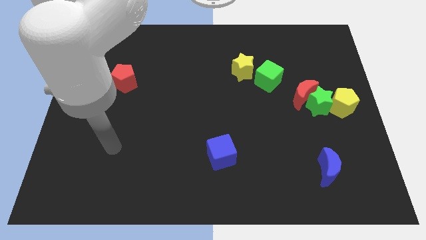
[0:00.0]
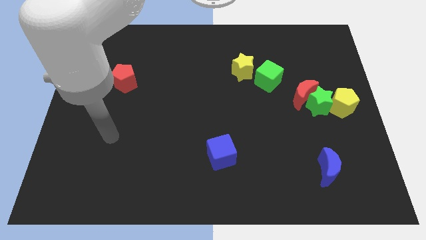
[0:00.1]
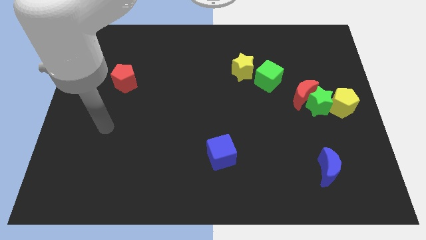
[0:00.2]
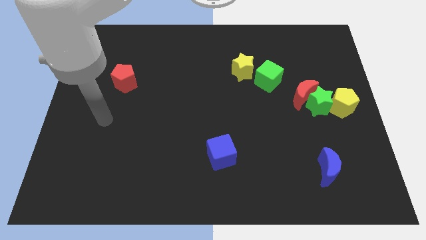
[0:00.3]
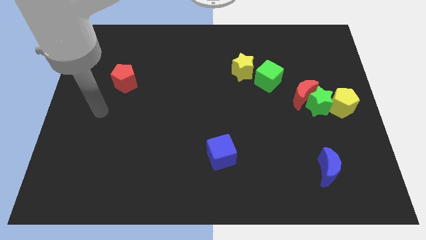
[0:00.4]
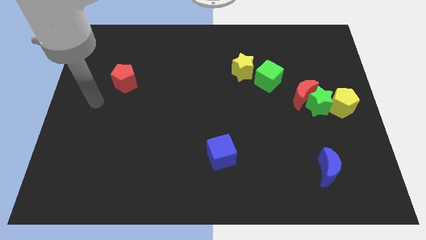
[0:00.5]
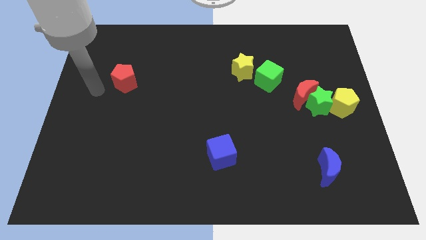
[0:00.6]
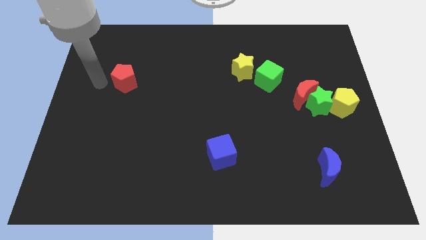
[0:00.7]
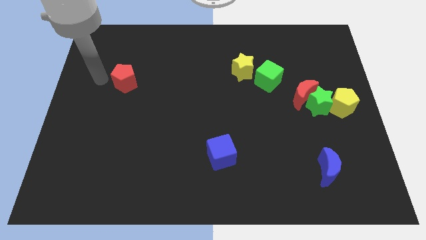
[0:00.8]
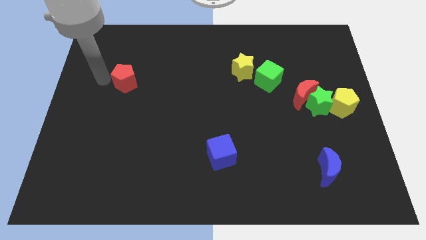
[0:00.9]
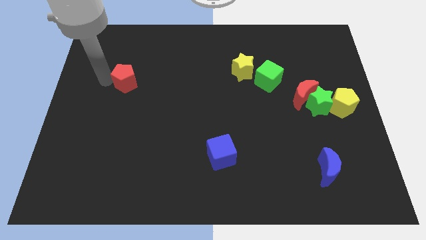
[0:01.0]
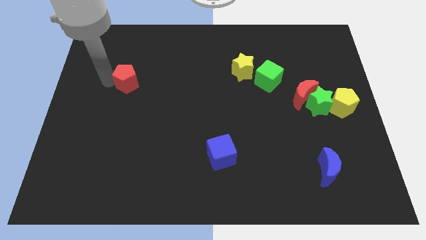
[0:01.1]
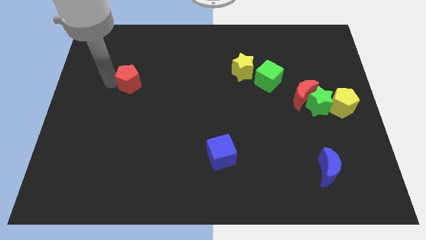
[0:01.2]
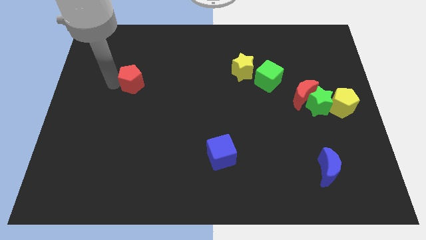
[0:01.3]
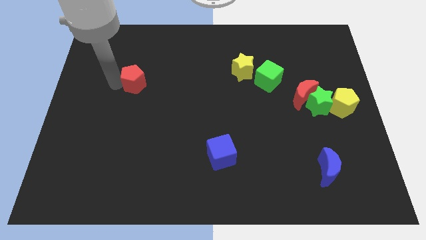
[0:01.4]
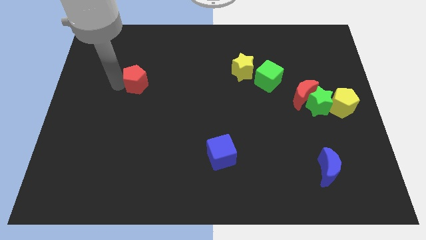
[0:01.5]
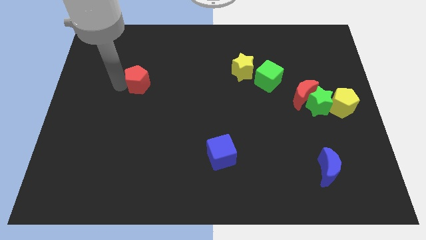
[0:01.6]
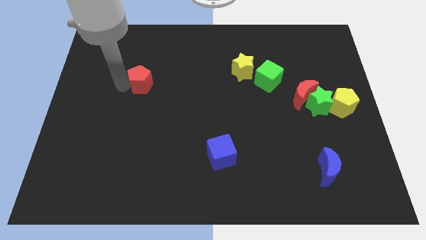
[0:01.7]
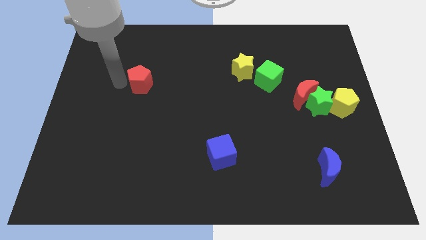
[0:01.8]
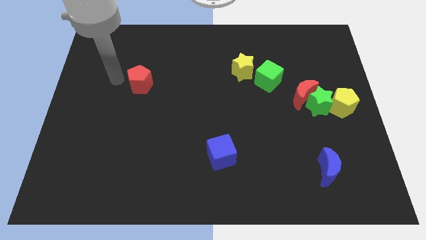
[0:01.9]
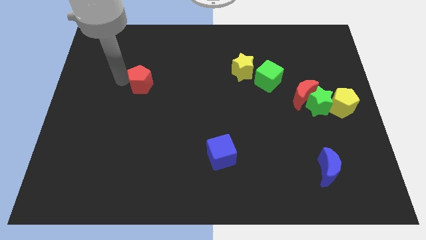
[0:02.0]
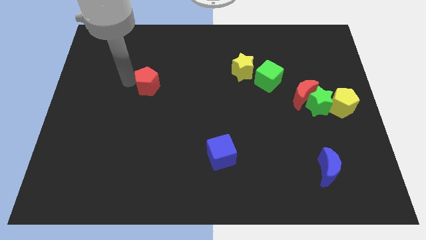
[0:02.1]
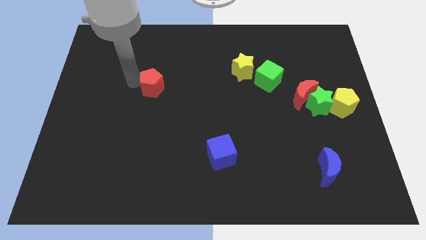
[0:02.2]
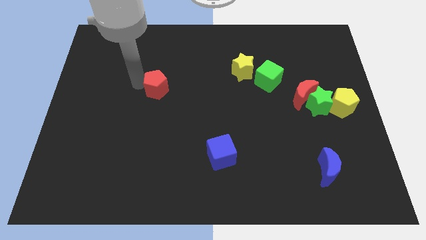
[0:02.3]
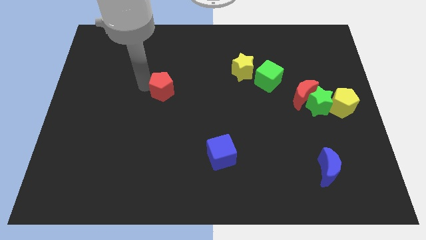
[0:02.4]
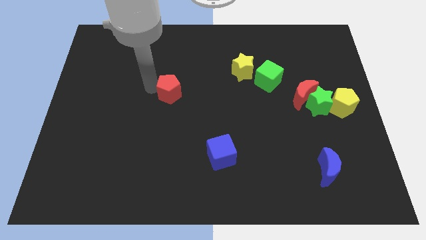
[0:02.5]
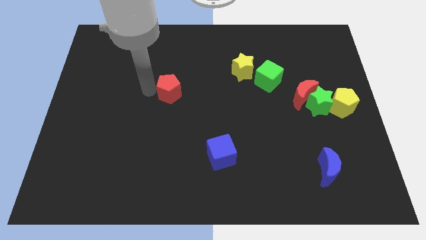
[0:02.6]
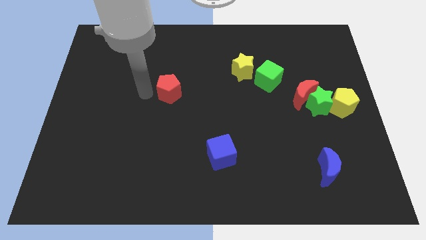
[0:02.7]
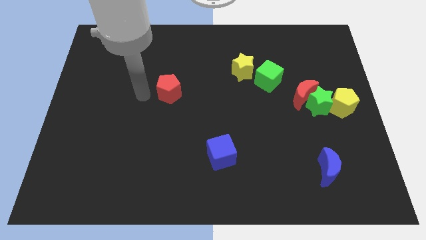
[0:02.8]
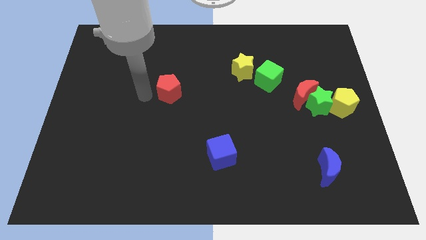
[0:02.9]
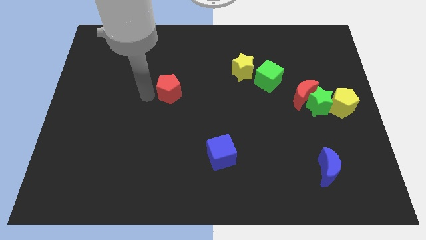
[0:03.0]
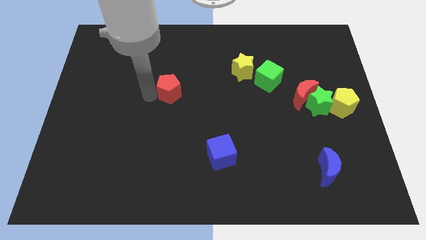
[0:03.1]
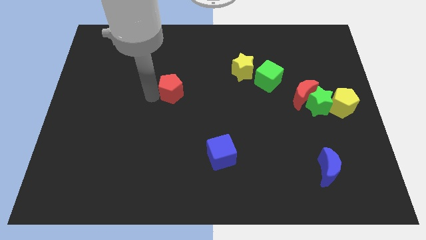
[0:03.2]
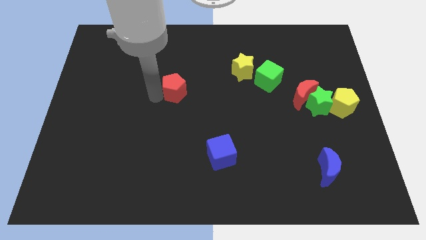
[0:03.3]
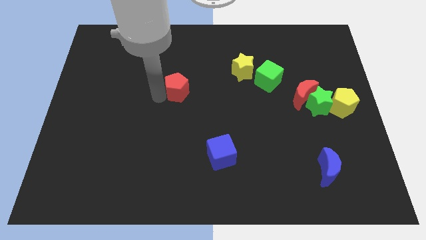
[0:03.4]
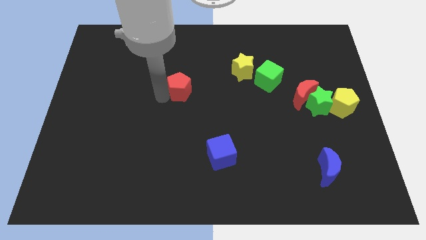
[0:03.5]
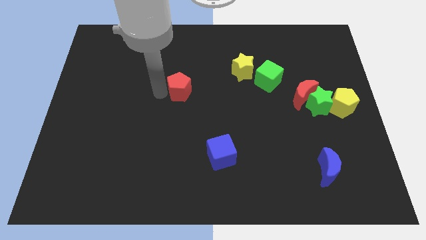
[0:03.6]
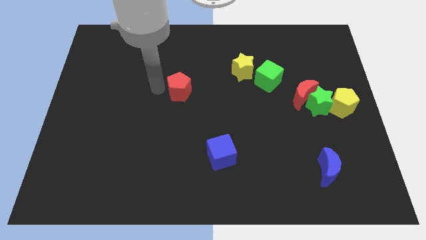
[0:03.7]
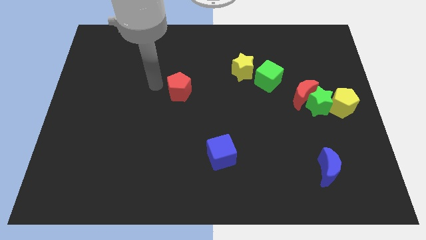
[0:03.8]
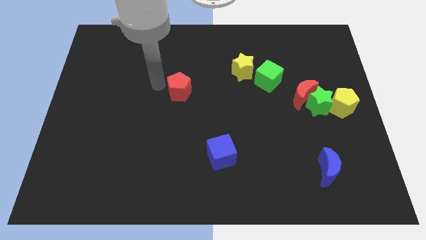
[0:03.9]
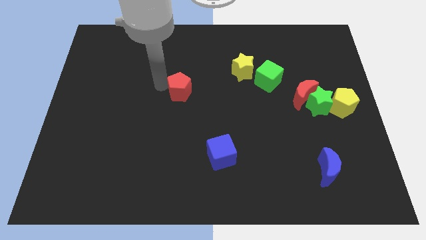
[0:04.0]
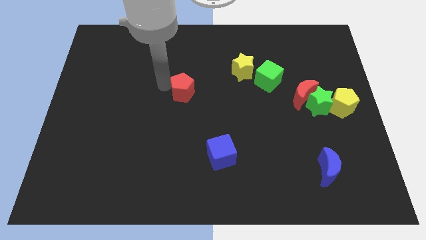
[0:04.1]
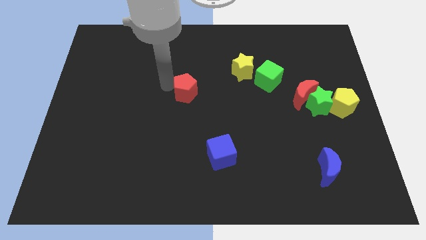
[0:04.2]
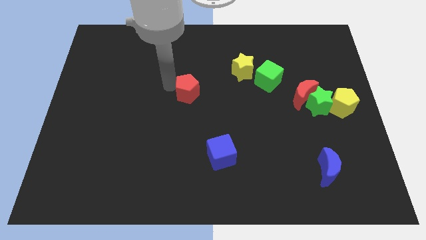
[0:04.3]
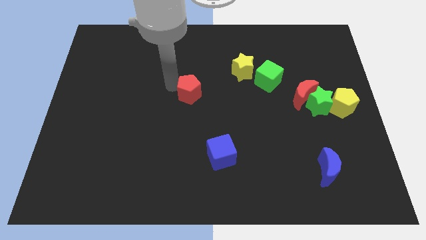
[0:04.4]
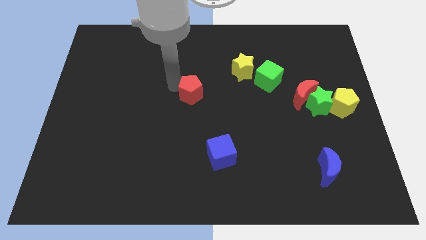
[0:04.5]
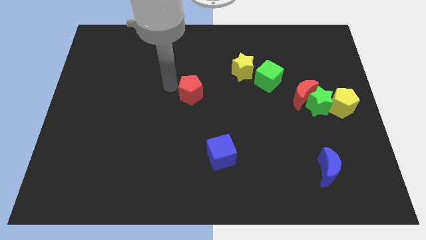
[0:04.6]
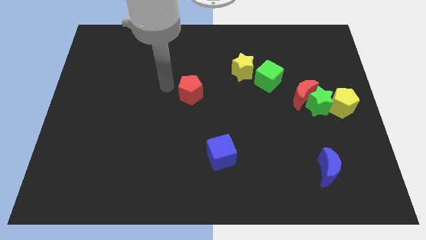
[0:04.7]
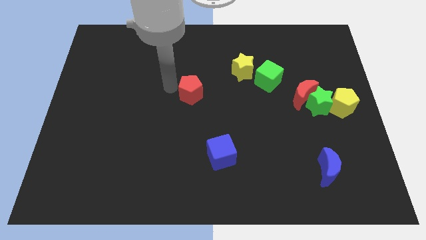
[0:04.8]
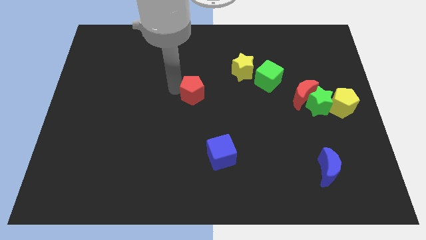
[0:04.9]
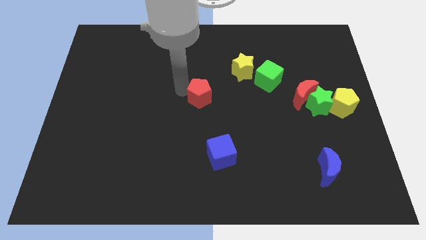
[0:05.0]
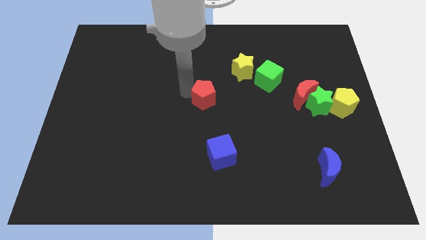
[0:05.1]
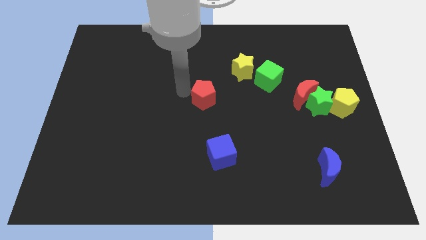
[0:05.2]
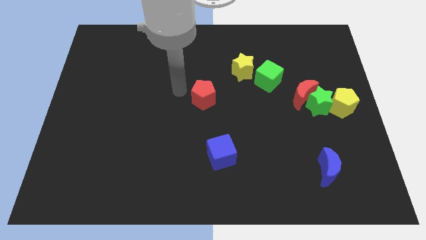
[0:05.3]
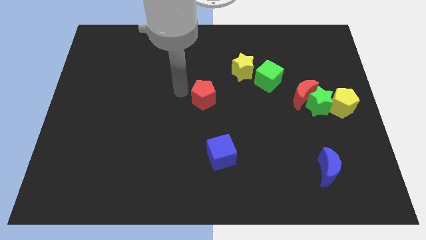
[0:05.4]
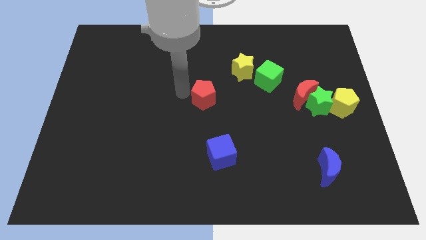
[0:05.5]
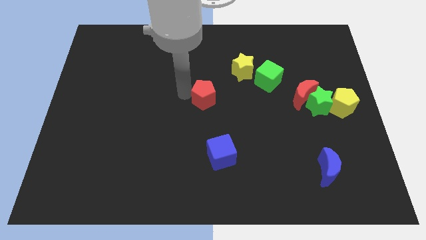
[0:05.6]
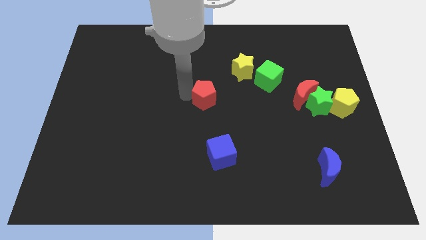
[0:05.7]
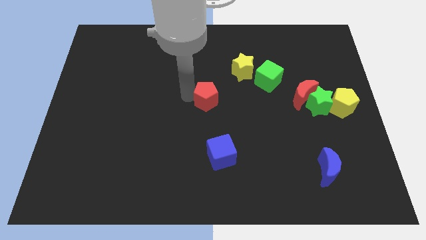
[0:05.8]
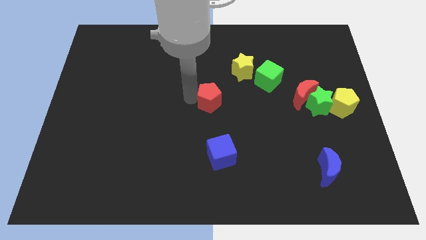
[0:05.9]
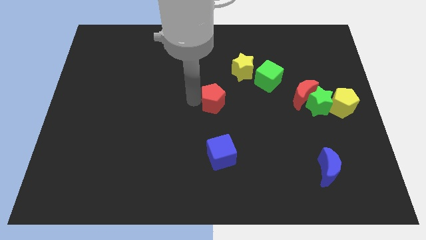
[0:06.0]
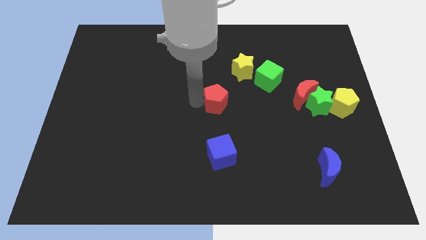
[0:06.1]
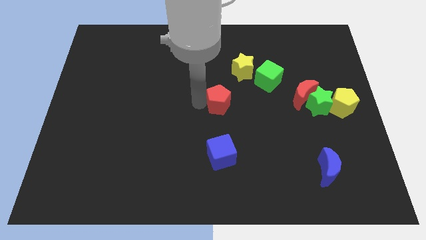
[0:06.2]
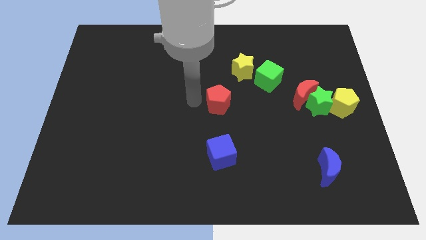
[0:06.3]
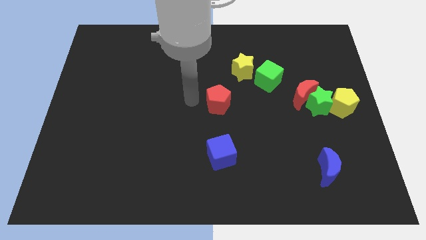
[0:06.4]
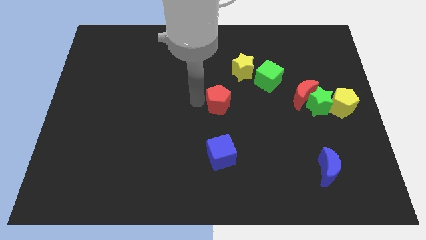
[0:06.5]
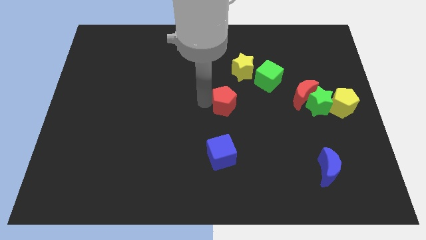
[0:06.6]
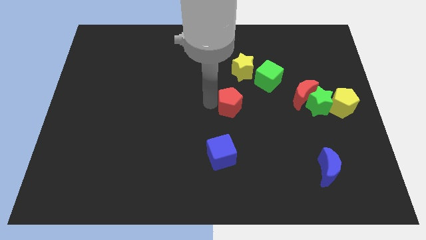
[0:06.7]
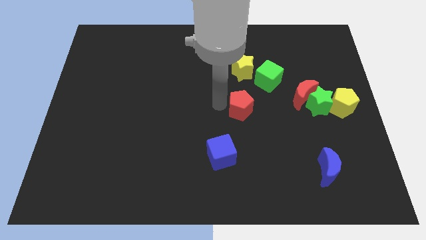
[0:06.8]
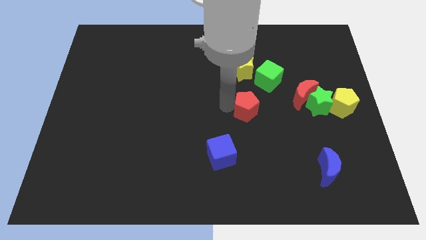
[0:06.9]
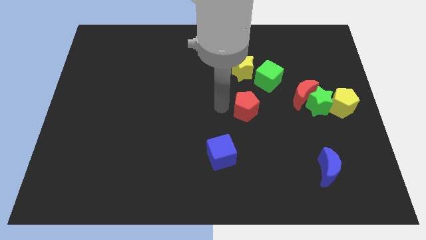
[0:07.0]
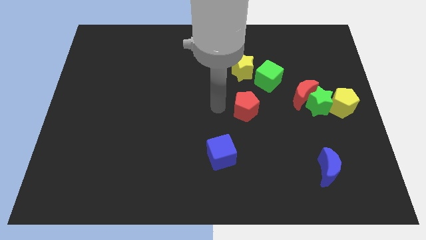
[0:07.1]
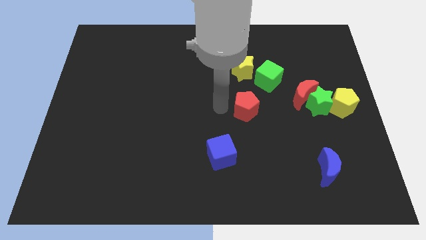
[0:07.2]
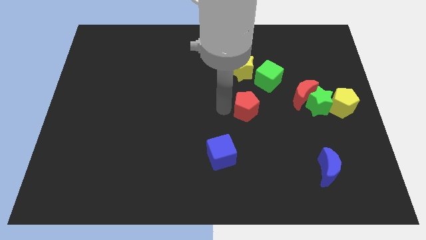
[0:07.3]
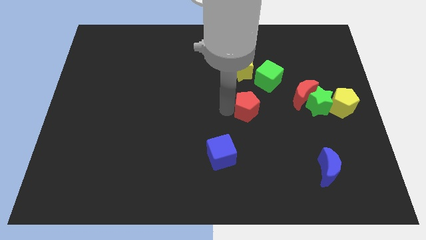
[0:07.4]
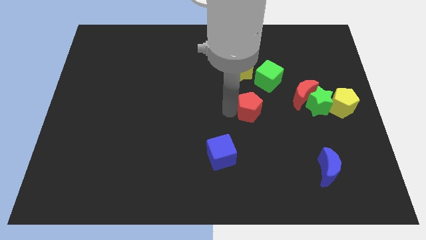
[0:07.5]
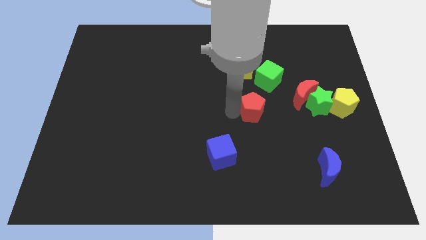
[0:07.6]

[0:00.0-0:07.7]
put the red pentagon to the bottom side of the green cube
